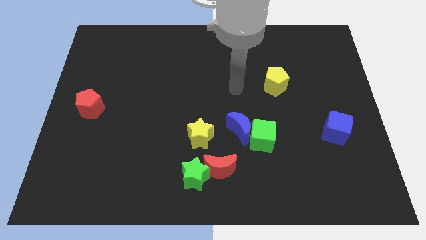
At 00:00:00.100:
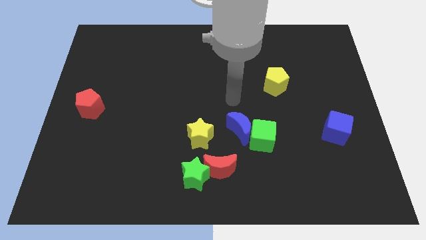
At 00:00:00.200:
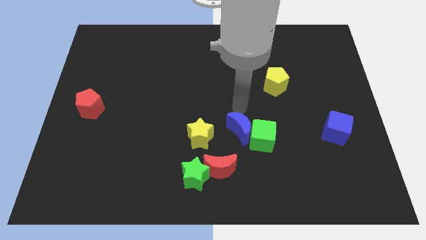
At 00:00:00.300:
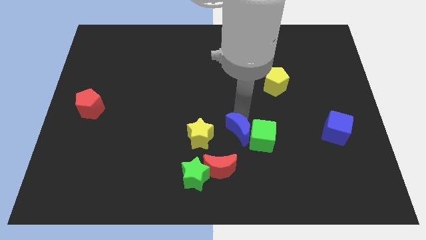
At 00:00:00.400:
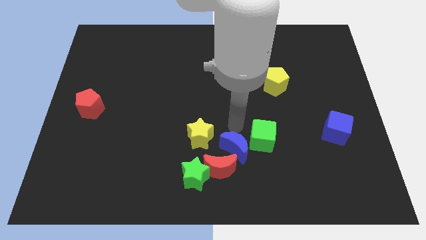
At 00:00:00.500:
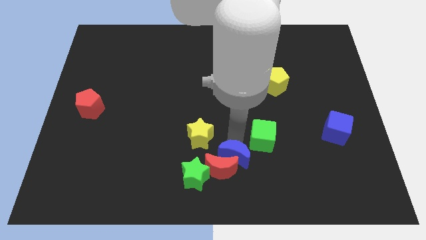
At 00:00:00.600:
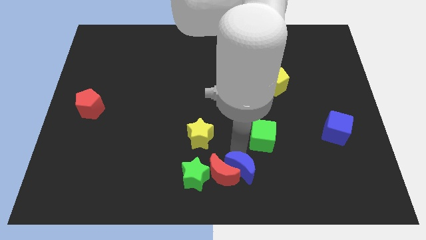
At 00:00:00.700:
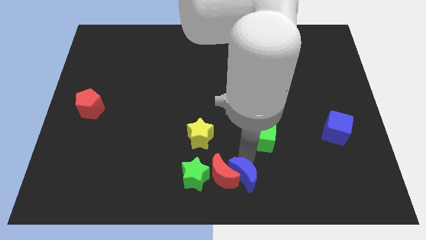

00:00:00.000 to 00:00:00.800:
move the green cube away from the blue moon

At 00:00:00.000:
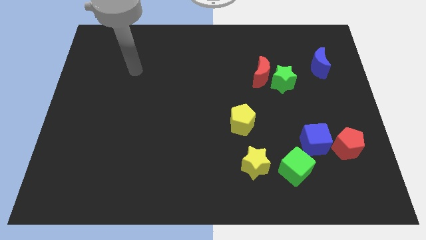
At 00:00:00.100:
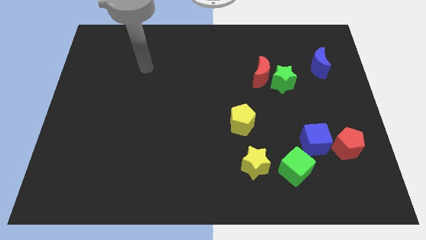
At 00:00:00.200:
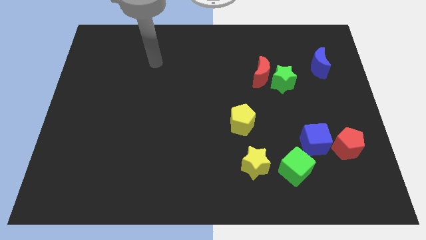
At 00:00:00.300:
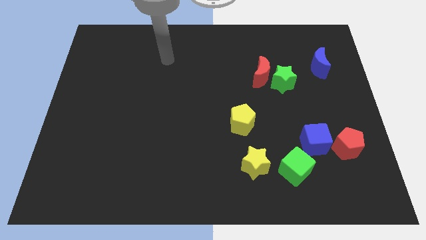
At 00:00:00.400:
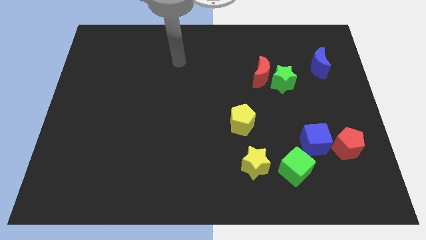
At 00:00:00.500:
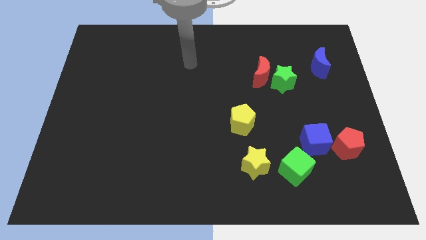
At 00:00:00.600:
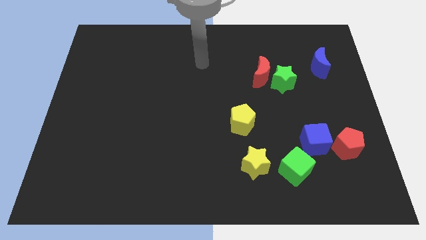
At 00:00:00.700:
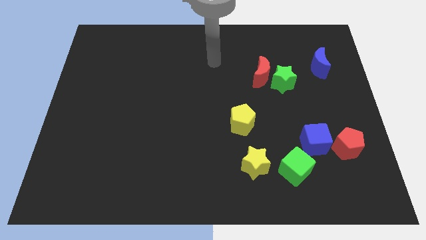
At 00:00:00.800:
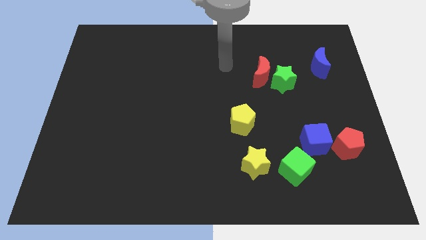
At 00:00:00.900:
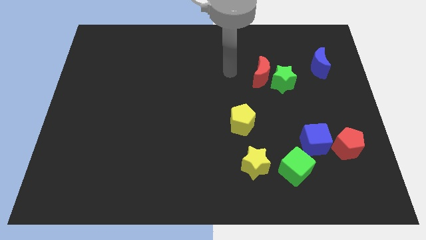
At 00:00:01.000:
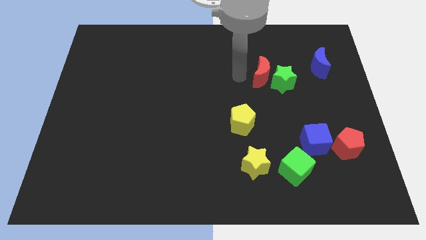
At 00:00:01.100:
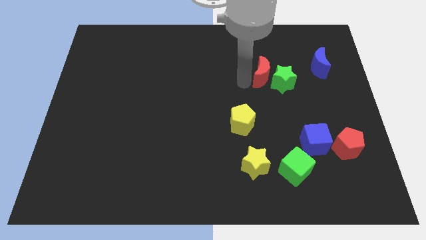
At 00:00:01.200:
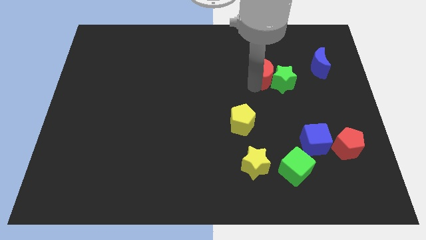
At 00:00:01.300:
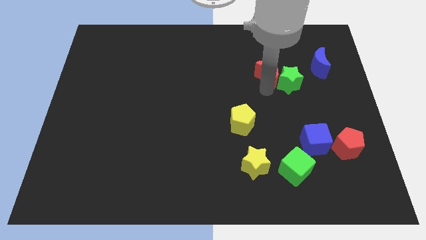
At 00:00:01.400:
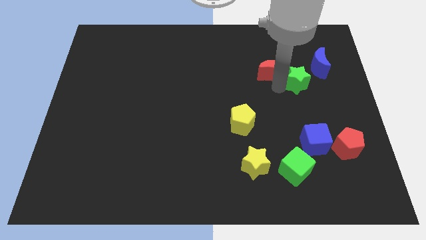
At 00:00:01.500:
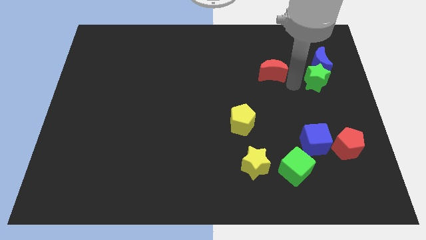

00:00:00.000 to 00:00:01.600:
move the red moon away from the green star

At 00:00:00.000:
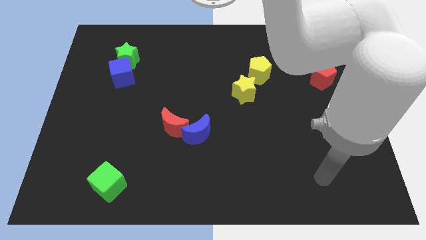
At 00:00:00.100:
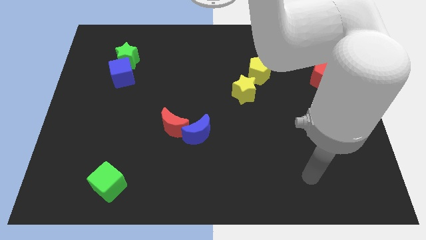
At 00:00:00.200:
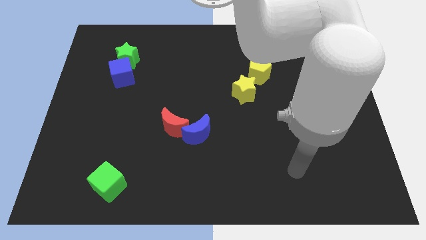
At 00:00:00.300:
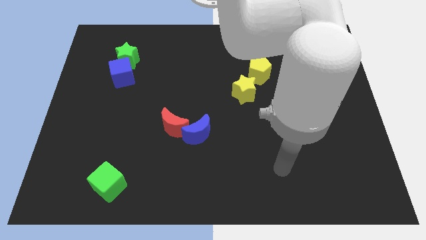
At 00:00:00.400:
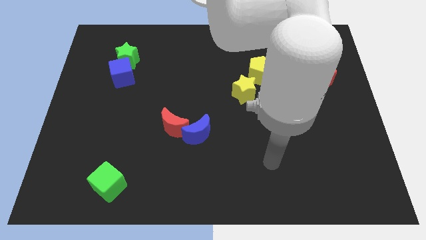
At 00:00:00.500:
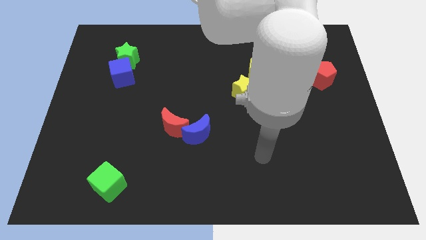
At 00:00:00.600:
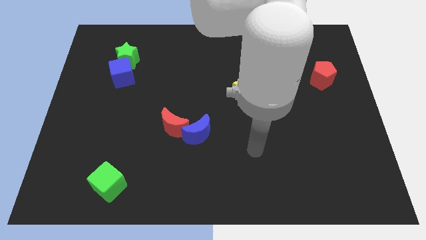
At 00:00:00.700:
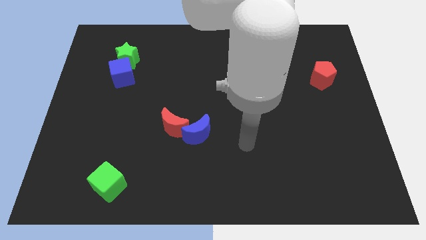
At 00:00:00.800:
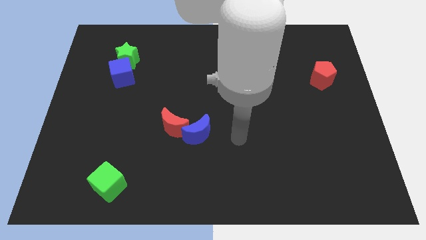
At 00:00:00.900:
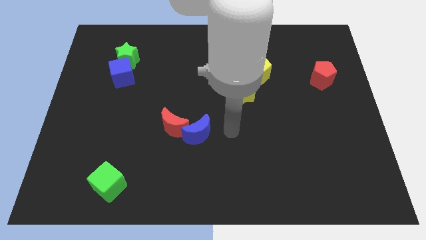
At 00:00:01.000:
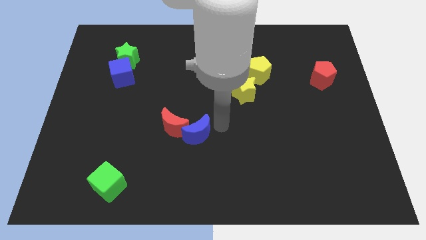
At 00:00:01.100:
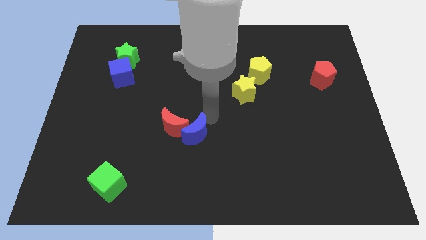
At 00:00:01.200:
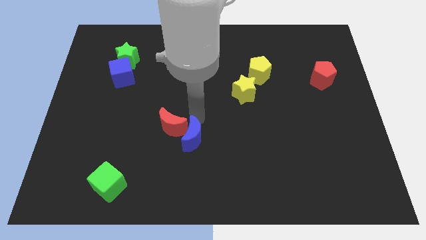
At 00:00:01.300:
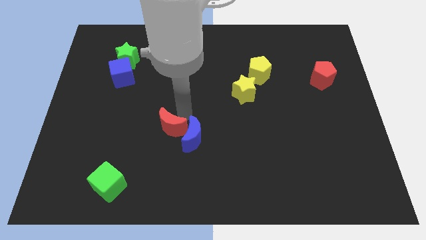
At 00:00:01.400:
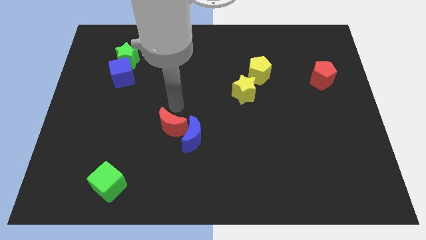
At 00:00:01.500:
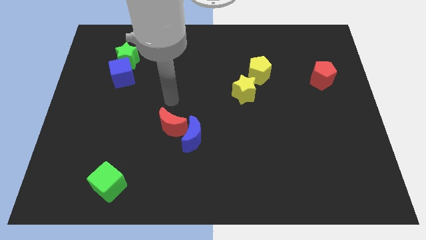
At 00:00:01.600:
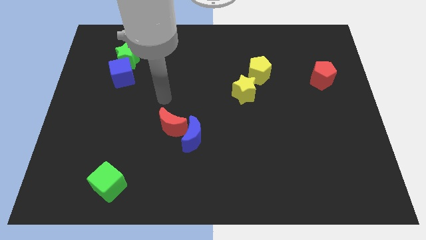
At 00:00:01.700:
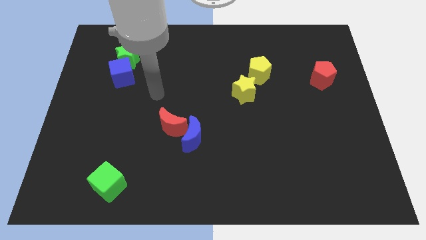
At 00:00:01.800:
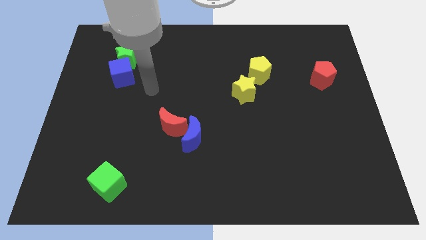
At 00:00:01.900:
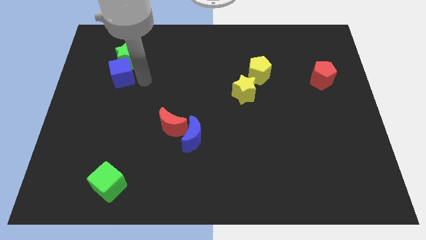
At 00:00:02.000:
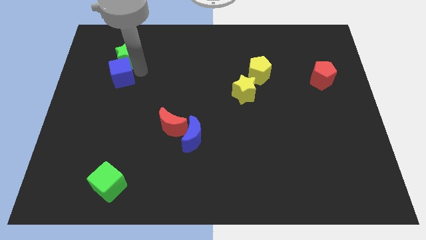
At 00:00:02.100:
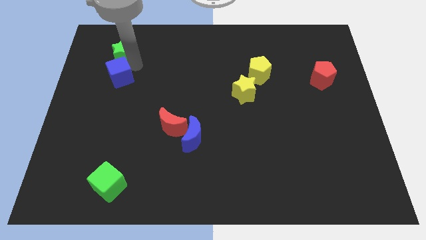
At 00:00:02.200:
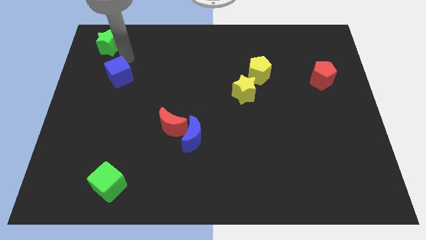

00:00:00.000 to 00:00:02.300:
separate the blue cube from the green star

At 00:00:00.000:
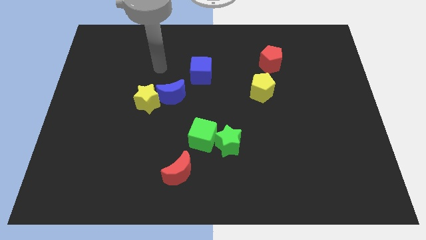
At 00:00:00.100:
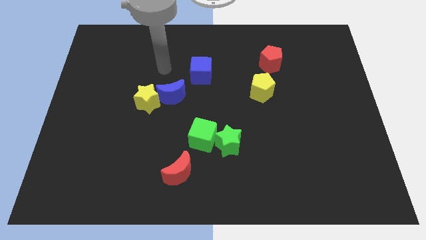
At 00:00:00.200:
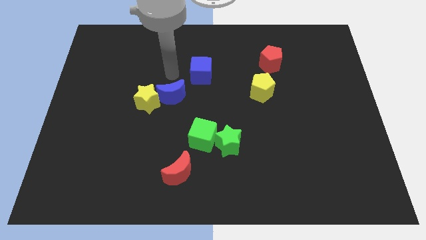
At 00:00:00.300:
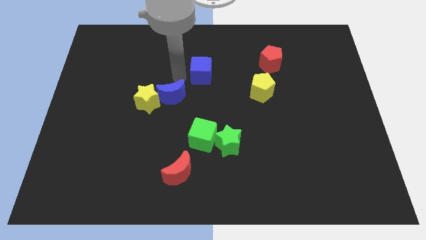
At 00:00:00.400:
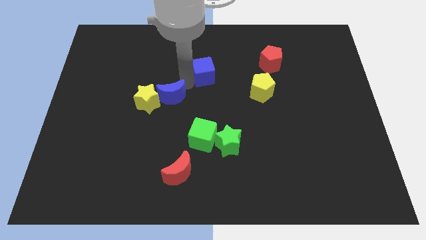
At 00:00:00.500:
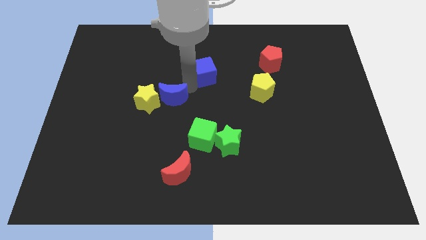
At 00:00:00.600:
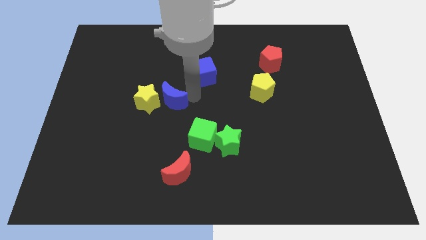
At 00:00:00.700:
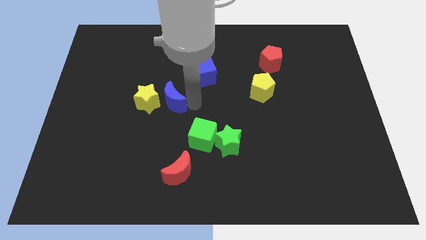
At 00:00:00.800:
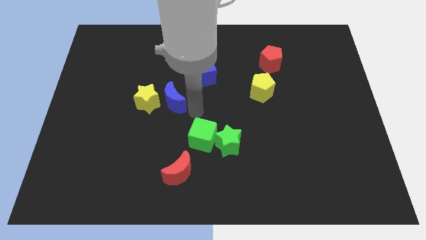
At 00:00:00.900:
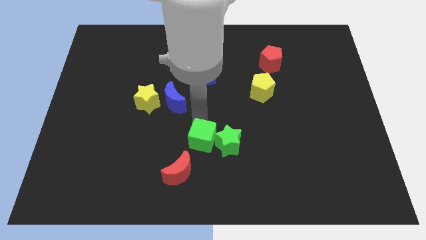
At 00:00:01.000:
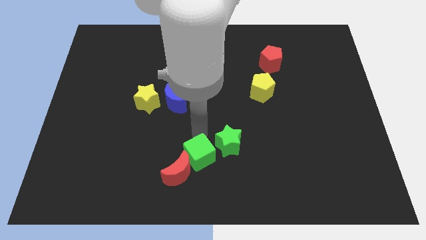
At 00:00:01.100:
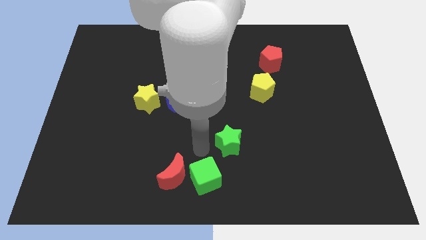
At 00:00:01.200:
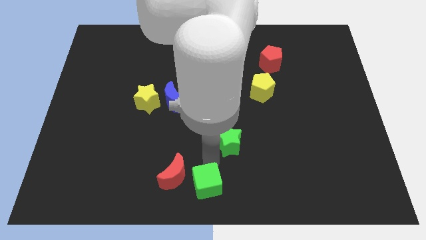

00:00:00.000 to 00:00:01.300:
move the green star away from the green cube

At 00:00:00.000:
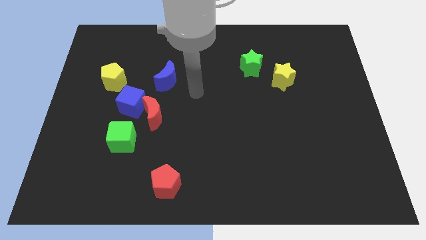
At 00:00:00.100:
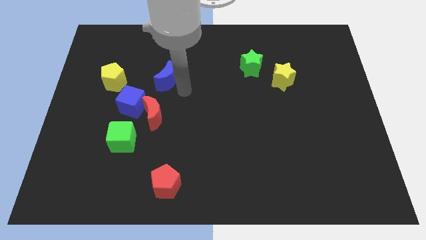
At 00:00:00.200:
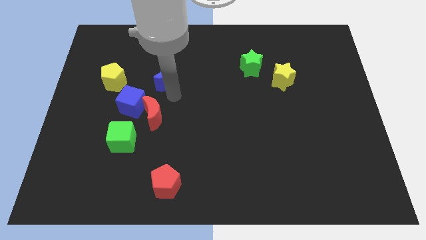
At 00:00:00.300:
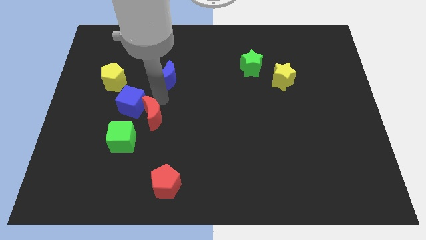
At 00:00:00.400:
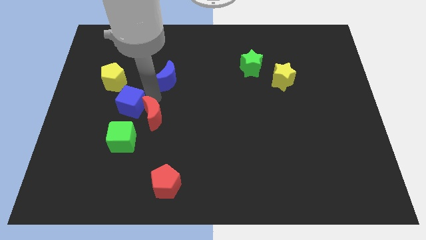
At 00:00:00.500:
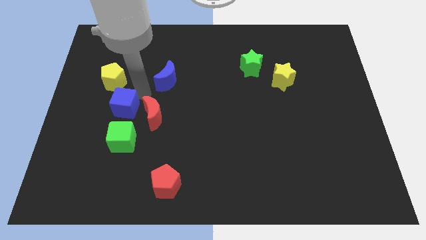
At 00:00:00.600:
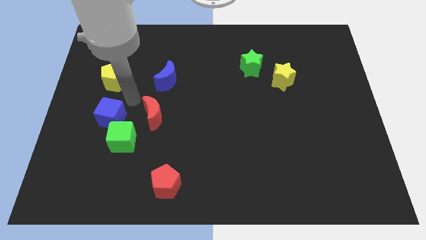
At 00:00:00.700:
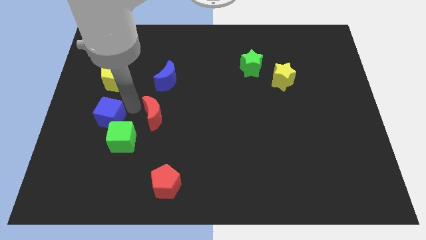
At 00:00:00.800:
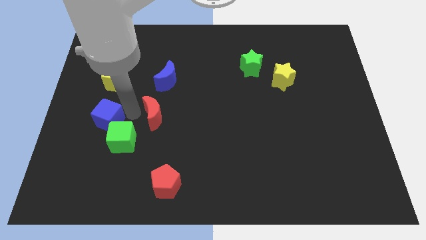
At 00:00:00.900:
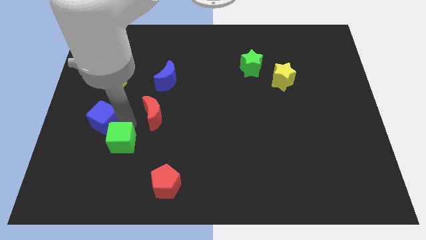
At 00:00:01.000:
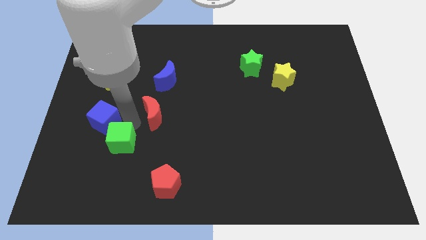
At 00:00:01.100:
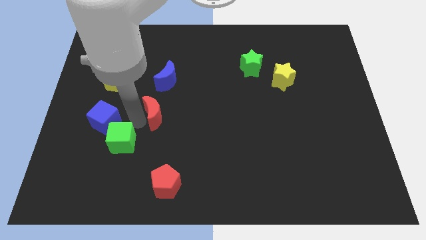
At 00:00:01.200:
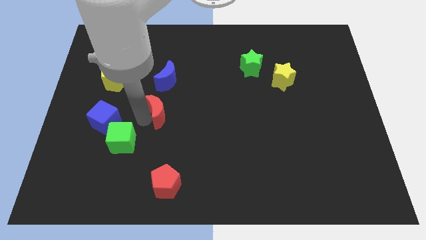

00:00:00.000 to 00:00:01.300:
pull the red moon apart from the blue cube and green cube

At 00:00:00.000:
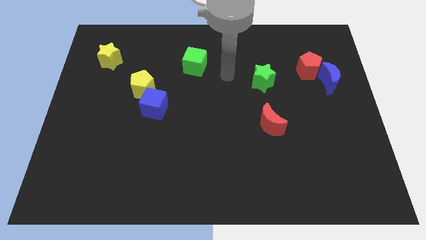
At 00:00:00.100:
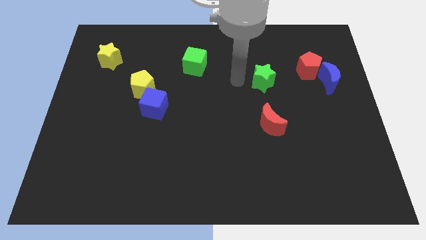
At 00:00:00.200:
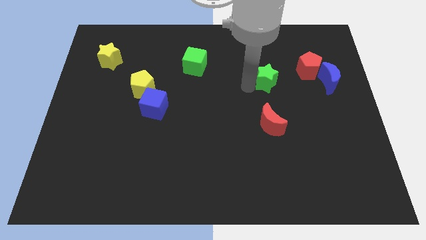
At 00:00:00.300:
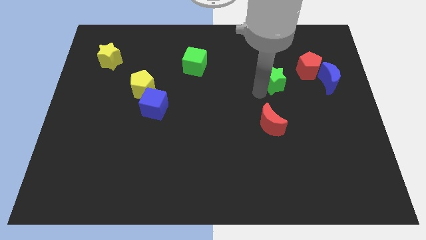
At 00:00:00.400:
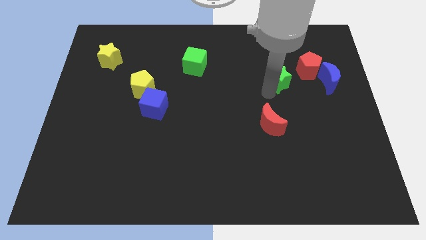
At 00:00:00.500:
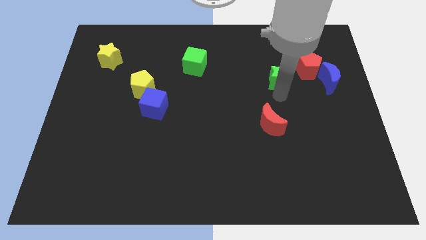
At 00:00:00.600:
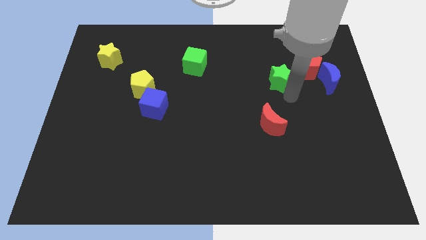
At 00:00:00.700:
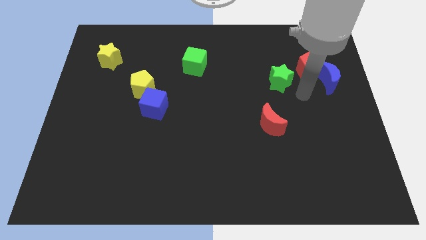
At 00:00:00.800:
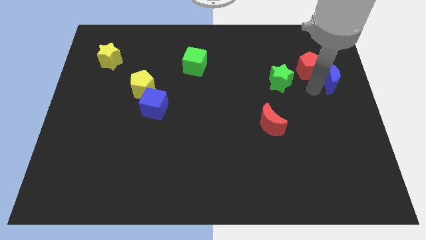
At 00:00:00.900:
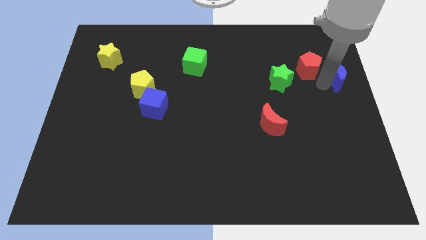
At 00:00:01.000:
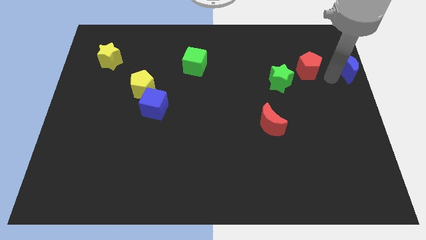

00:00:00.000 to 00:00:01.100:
separate the red pentagon from the blue moon

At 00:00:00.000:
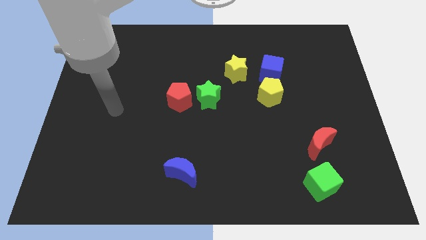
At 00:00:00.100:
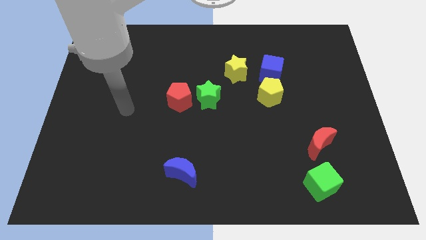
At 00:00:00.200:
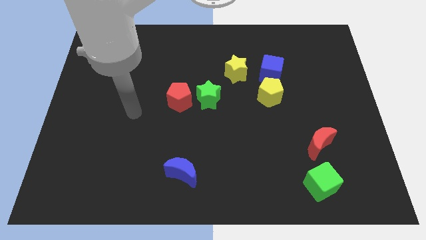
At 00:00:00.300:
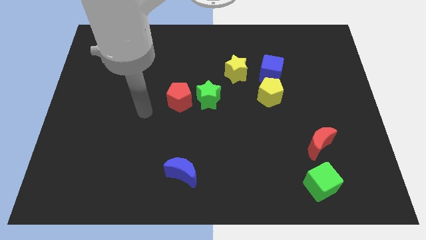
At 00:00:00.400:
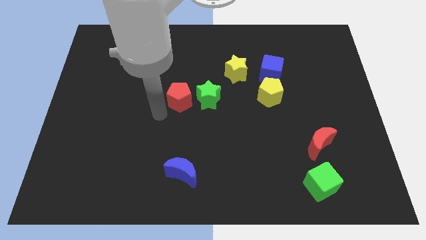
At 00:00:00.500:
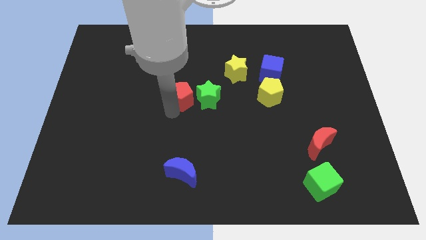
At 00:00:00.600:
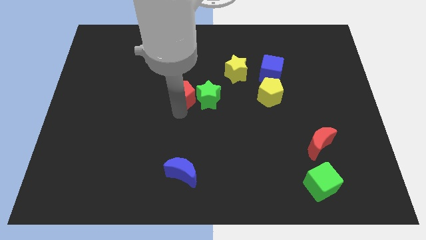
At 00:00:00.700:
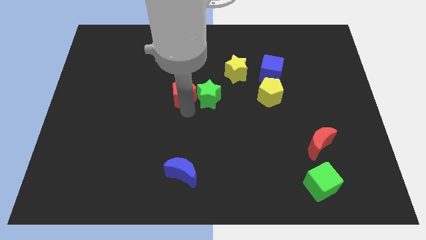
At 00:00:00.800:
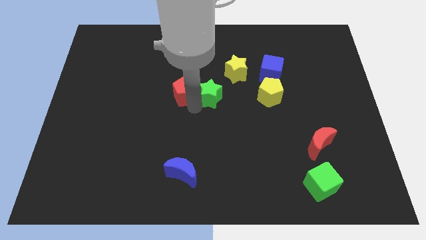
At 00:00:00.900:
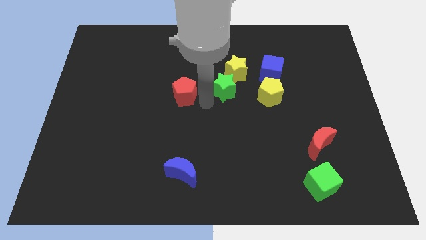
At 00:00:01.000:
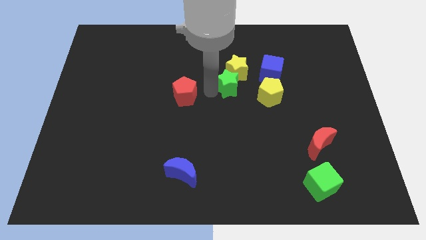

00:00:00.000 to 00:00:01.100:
move the red pentagon away from the green star
